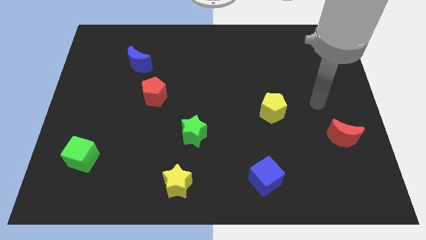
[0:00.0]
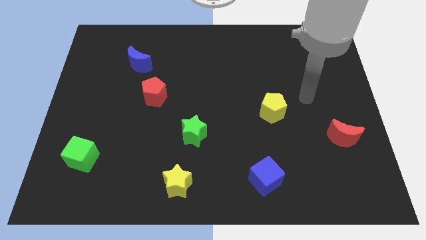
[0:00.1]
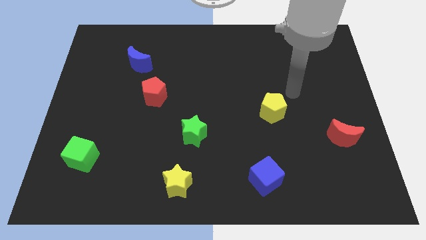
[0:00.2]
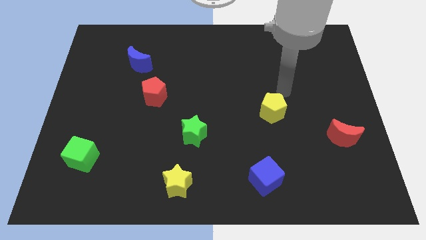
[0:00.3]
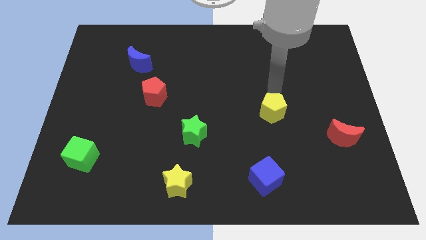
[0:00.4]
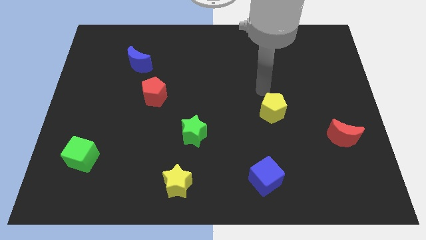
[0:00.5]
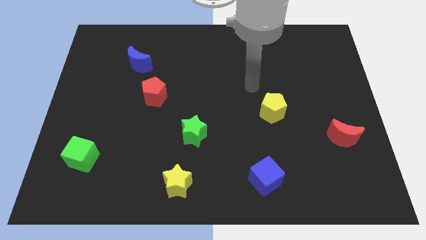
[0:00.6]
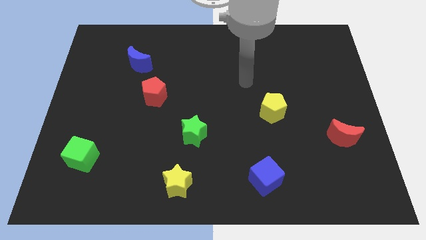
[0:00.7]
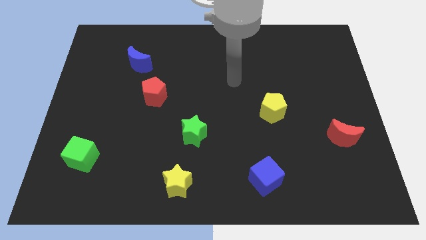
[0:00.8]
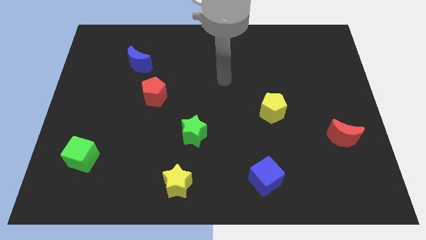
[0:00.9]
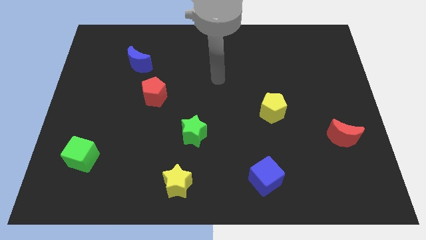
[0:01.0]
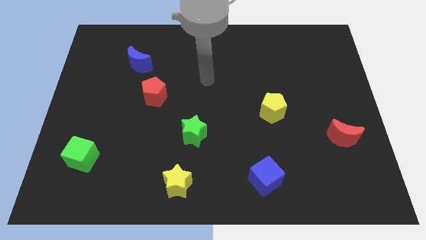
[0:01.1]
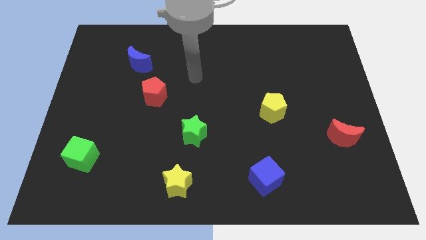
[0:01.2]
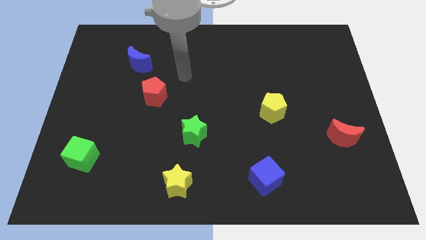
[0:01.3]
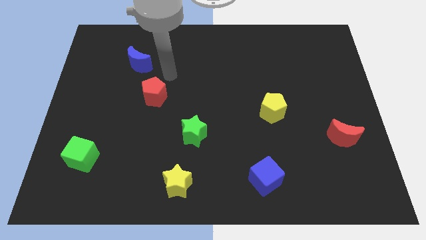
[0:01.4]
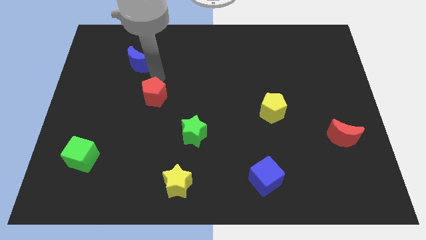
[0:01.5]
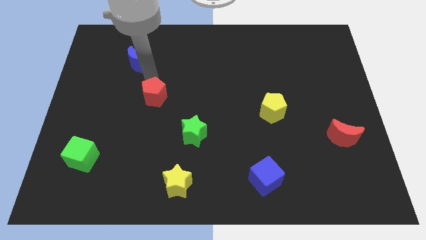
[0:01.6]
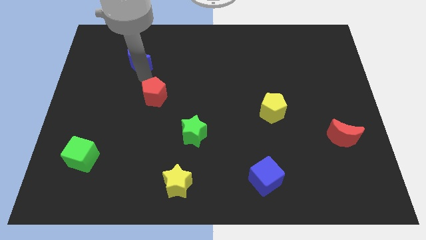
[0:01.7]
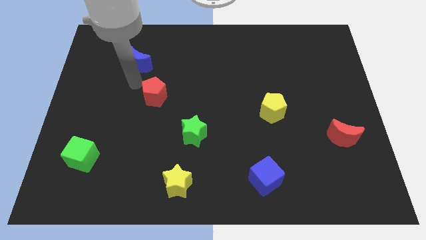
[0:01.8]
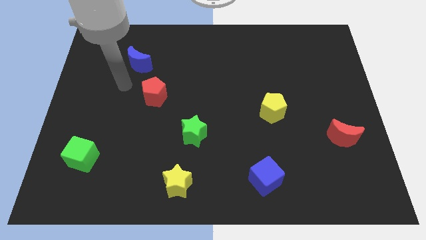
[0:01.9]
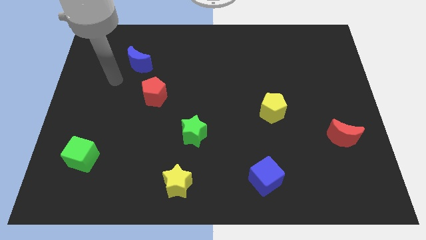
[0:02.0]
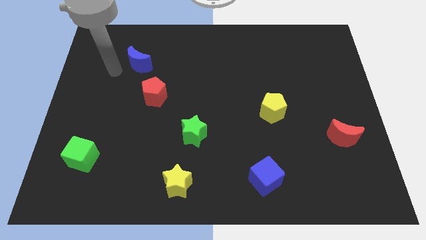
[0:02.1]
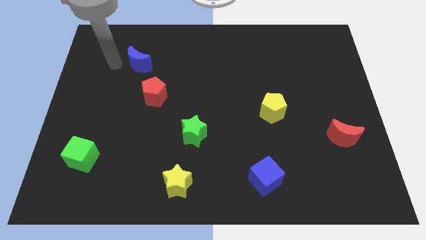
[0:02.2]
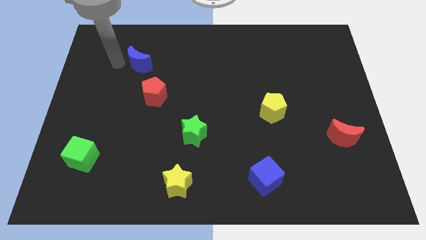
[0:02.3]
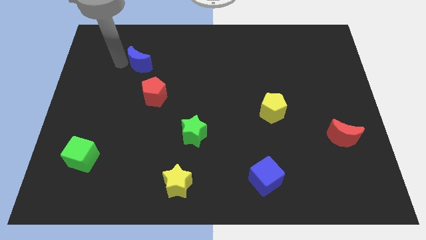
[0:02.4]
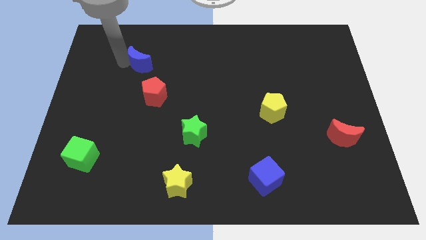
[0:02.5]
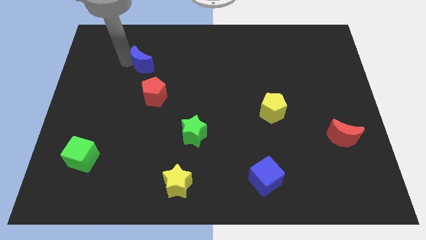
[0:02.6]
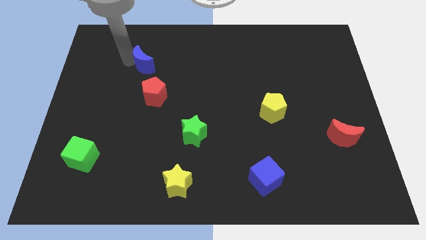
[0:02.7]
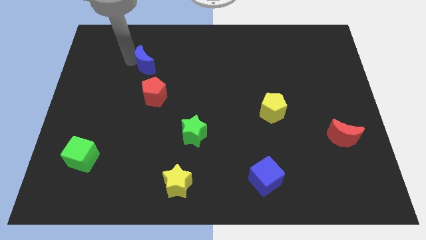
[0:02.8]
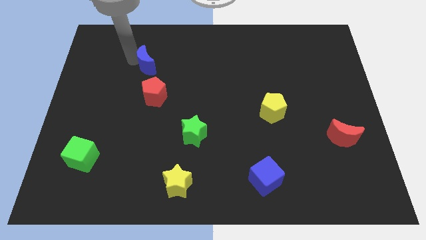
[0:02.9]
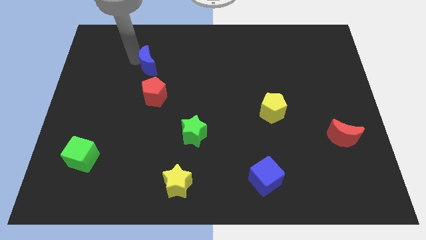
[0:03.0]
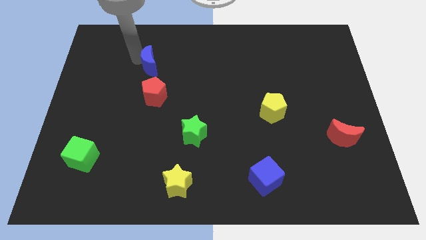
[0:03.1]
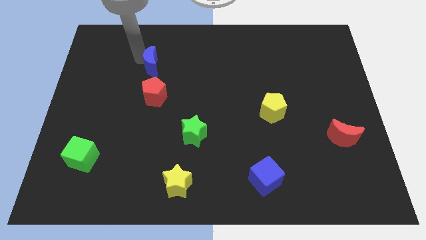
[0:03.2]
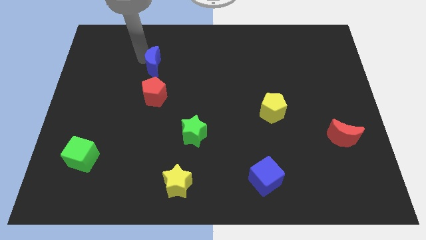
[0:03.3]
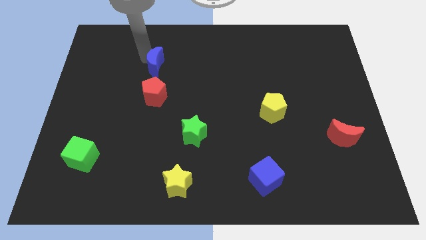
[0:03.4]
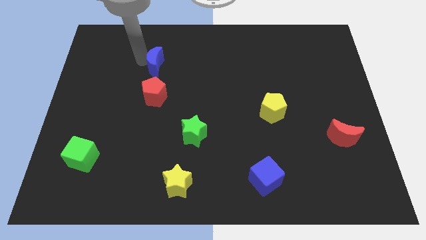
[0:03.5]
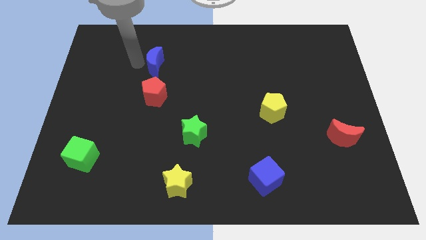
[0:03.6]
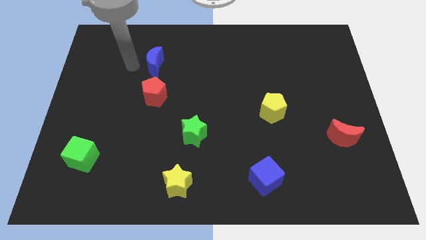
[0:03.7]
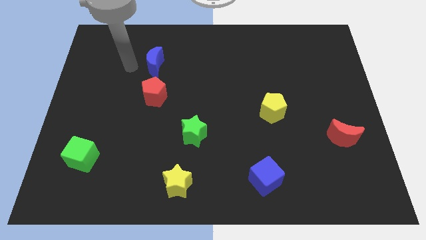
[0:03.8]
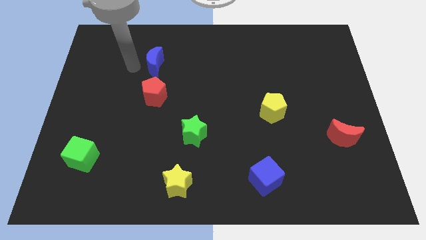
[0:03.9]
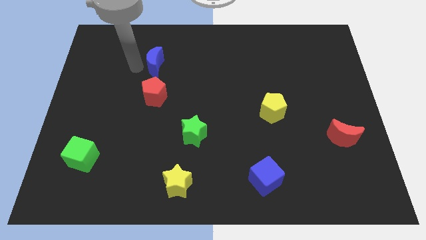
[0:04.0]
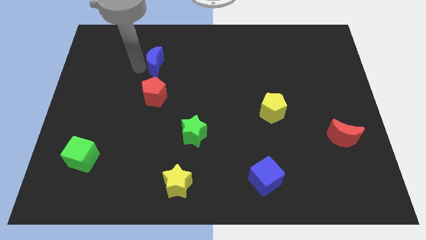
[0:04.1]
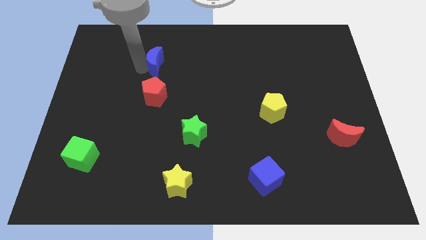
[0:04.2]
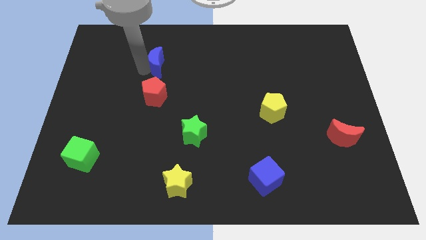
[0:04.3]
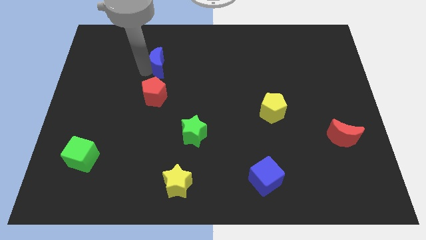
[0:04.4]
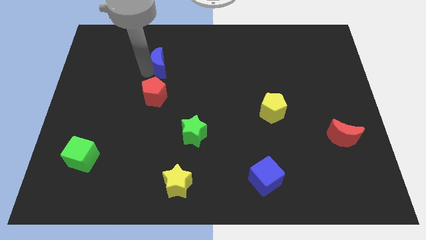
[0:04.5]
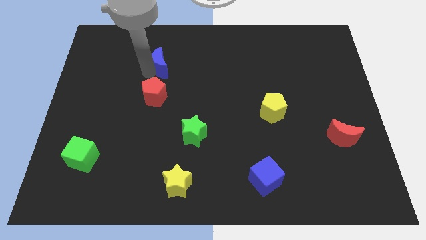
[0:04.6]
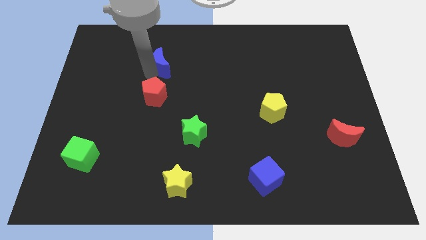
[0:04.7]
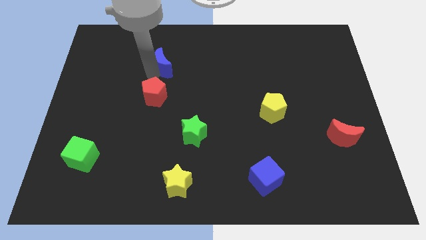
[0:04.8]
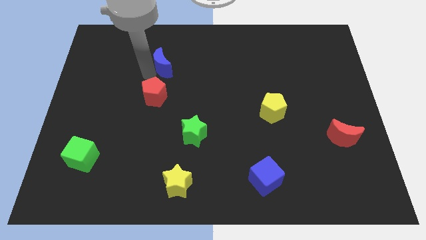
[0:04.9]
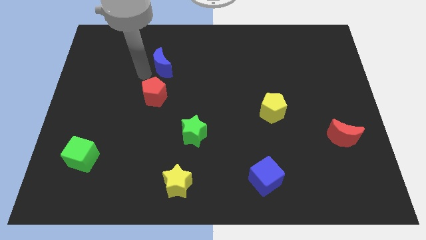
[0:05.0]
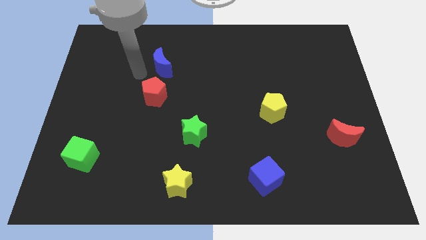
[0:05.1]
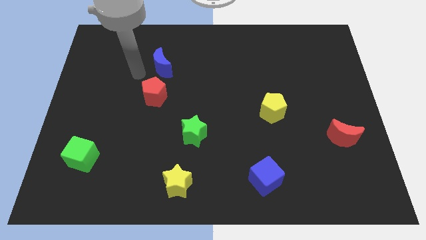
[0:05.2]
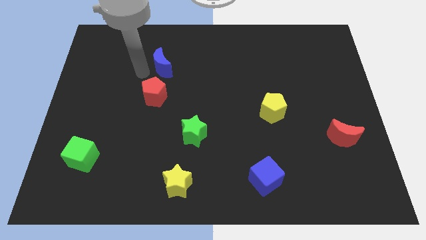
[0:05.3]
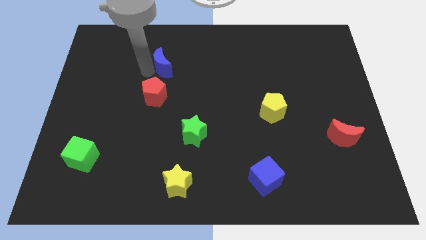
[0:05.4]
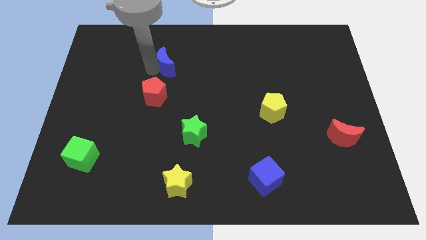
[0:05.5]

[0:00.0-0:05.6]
push the blue moon somewhat to the right

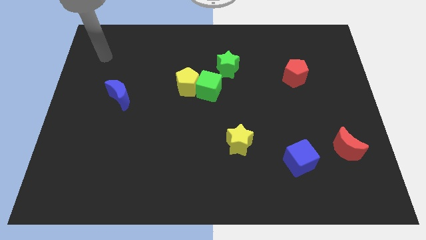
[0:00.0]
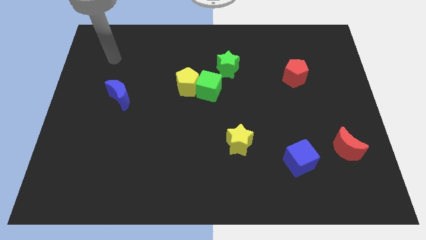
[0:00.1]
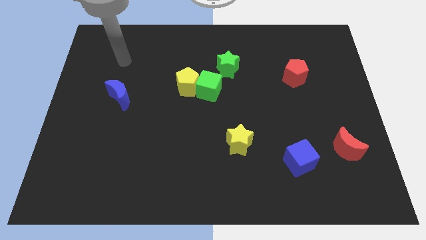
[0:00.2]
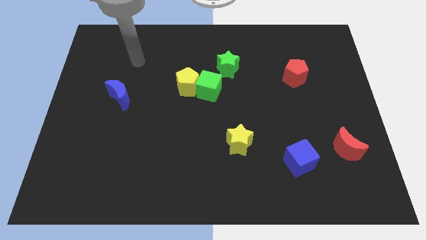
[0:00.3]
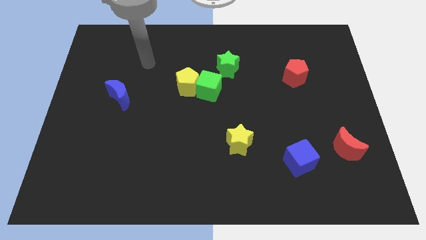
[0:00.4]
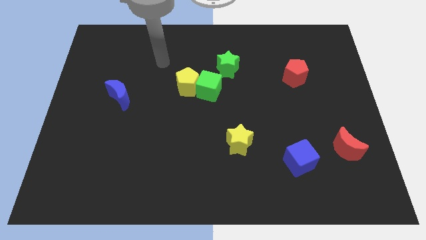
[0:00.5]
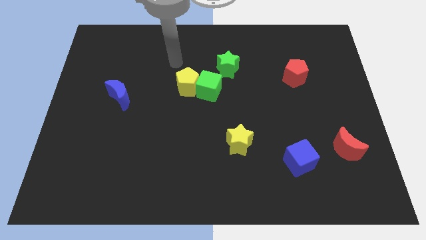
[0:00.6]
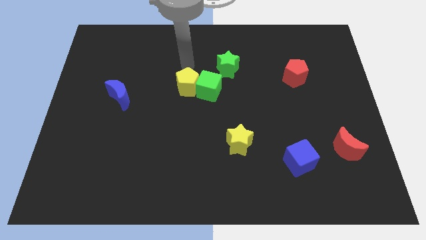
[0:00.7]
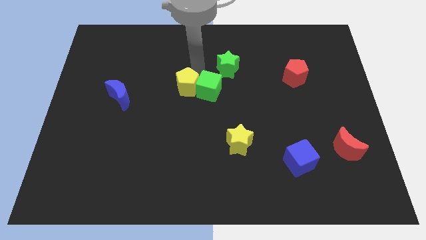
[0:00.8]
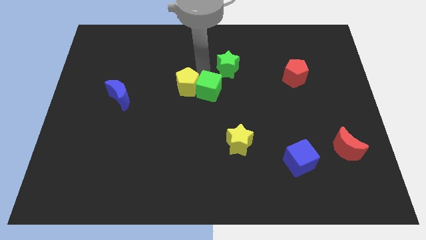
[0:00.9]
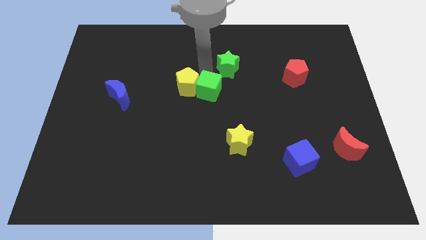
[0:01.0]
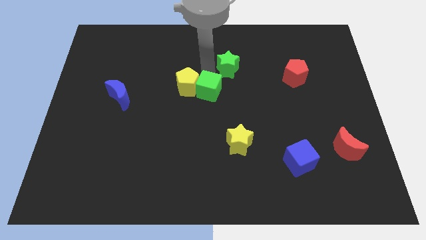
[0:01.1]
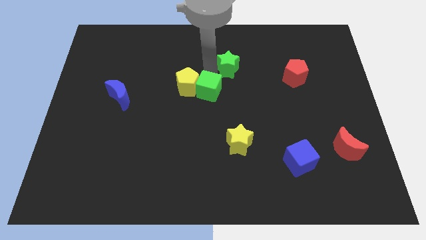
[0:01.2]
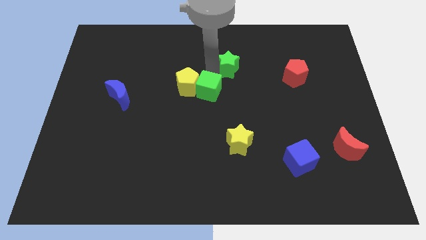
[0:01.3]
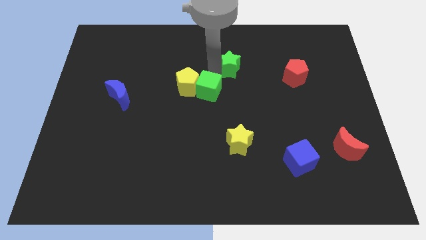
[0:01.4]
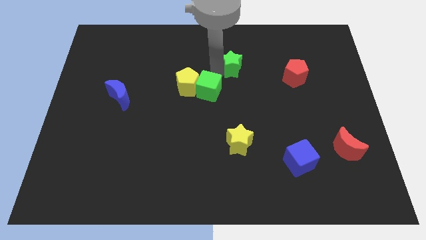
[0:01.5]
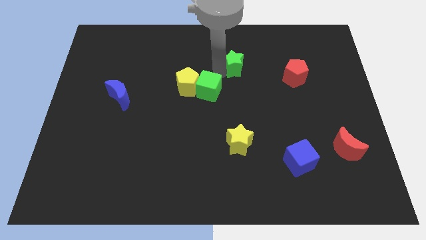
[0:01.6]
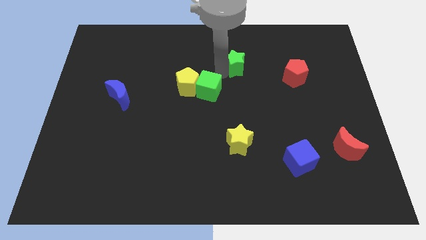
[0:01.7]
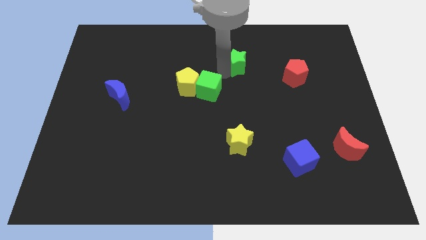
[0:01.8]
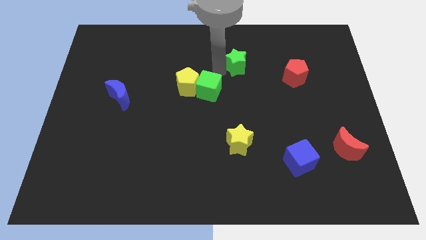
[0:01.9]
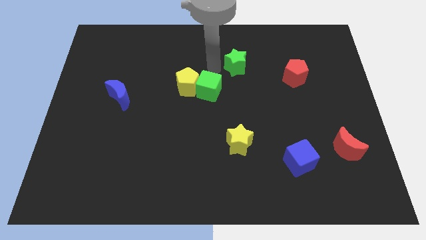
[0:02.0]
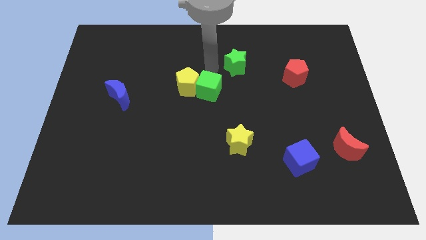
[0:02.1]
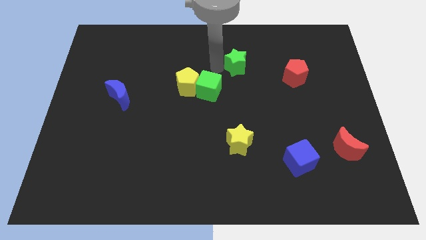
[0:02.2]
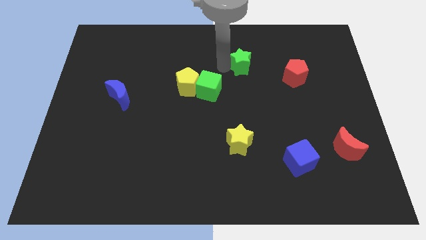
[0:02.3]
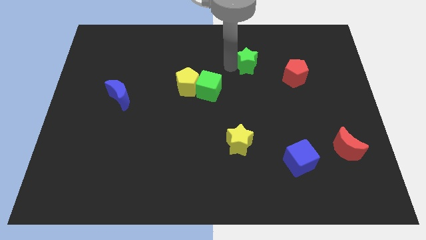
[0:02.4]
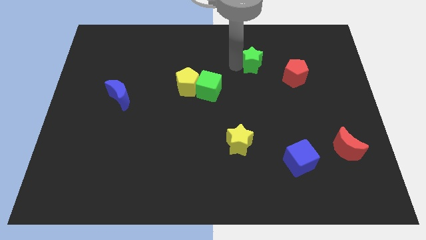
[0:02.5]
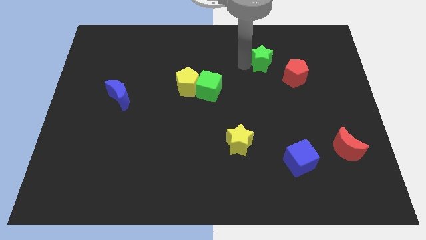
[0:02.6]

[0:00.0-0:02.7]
slightly slide the green star to the right

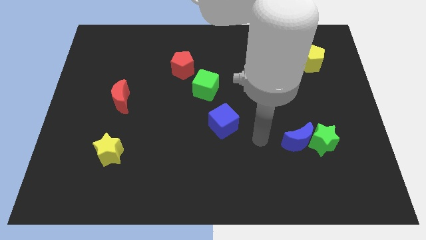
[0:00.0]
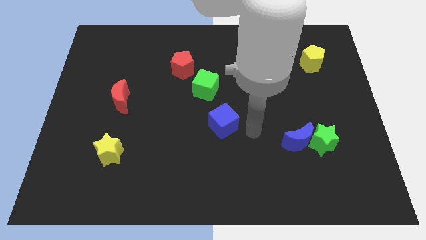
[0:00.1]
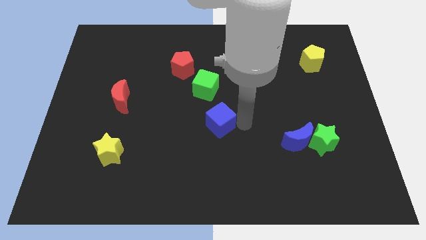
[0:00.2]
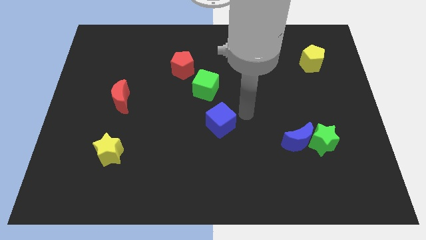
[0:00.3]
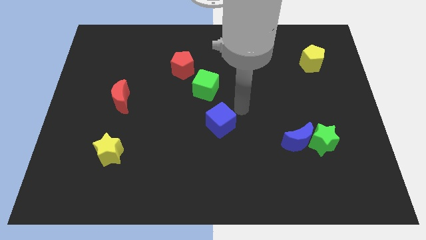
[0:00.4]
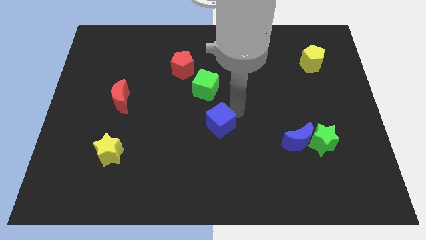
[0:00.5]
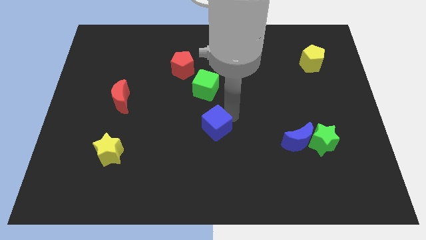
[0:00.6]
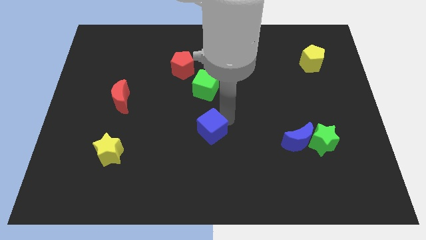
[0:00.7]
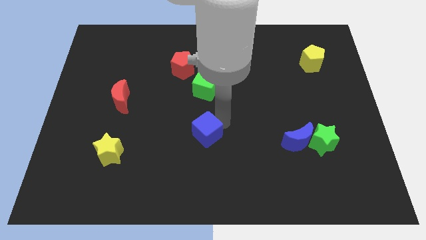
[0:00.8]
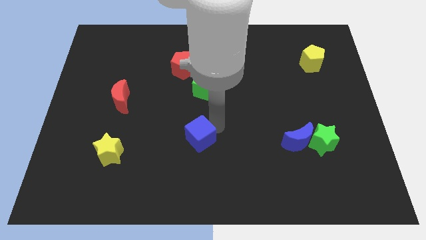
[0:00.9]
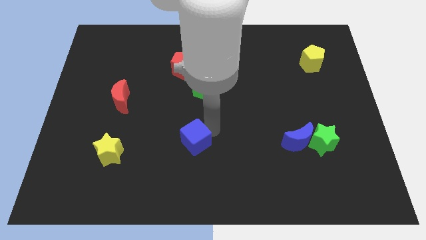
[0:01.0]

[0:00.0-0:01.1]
move the blue cube down and left diagonally a bit
